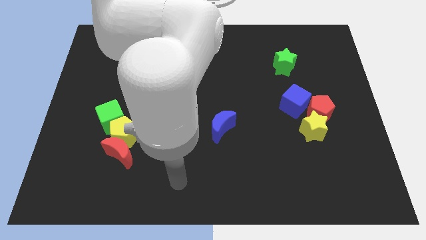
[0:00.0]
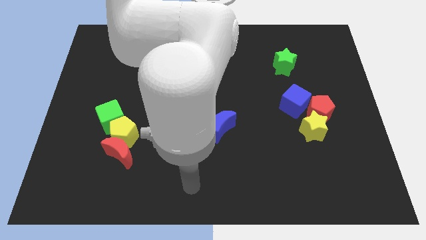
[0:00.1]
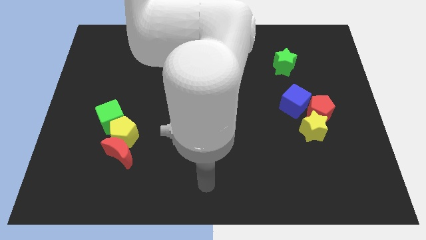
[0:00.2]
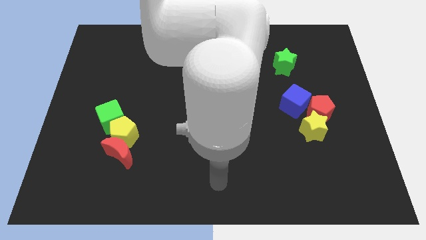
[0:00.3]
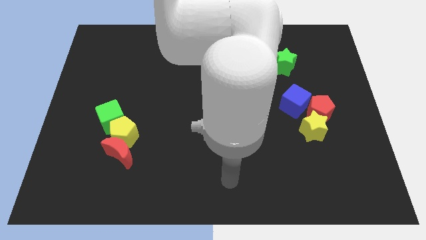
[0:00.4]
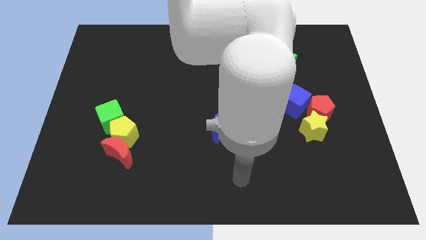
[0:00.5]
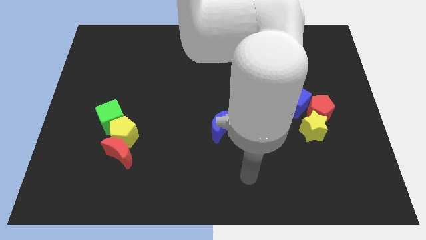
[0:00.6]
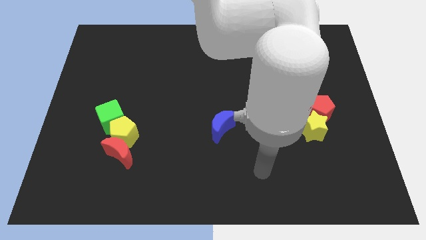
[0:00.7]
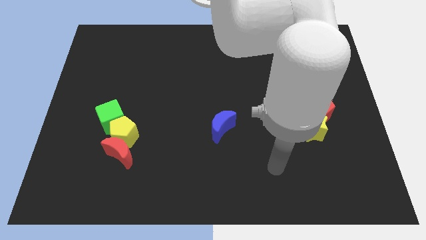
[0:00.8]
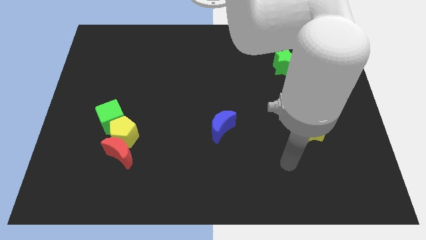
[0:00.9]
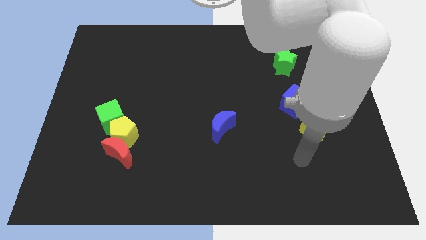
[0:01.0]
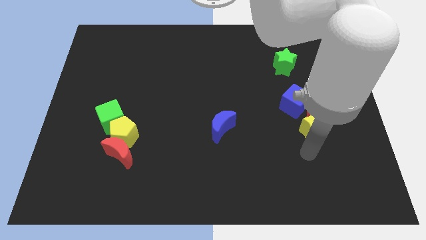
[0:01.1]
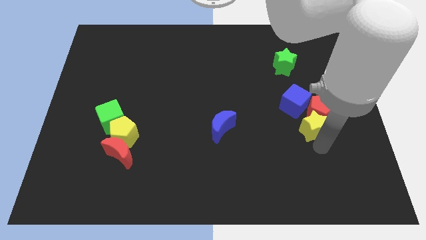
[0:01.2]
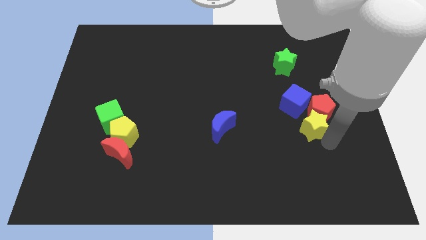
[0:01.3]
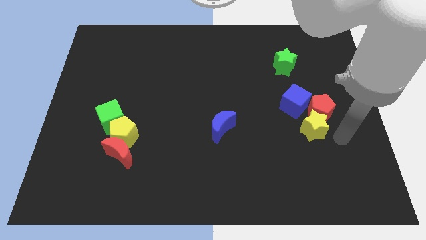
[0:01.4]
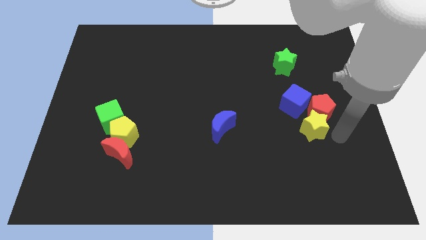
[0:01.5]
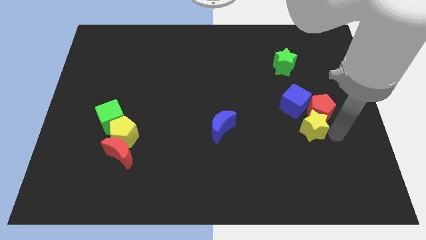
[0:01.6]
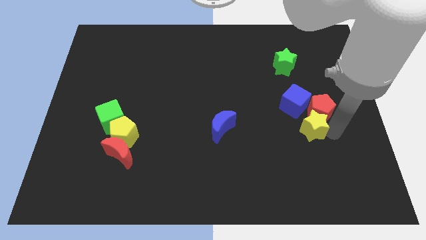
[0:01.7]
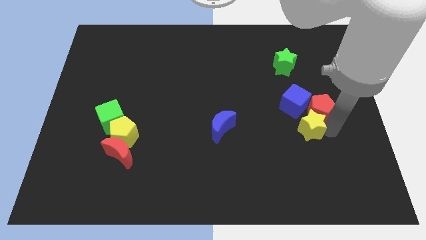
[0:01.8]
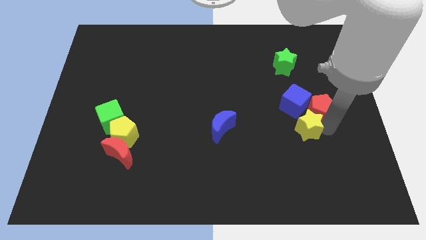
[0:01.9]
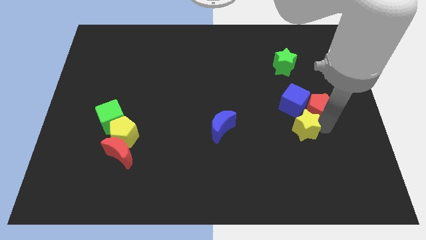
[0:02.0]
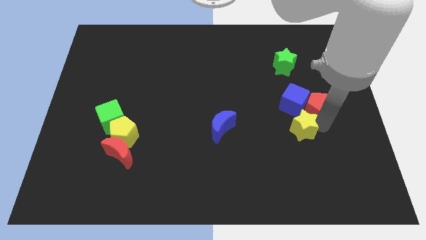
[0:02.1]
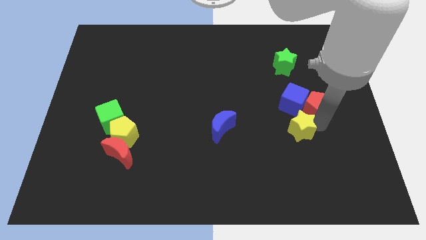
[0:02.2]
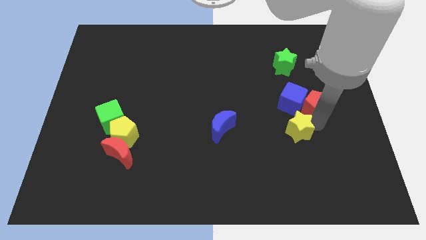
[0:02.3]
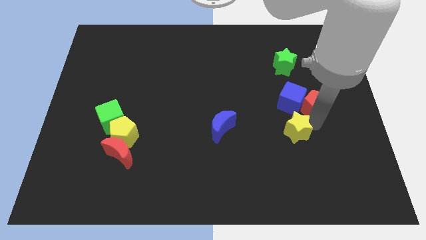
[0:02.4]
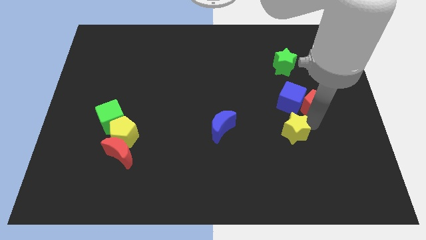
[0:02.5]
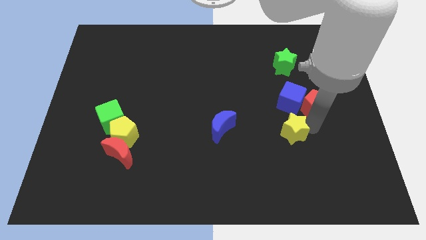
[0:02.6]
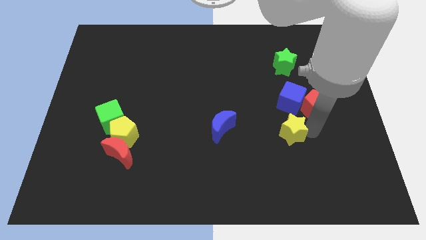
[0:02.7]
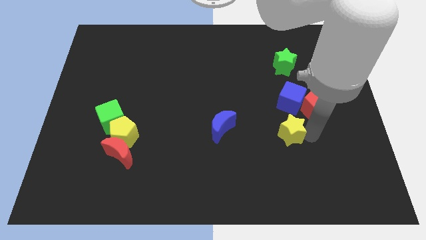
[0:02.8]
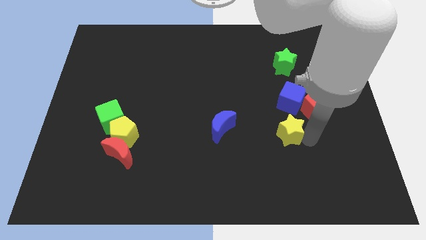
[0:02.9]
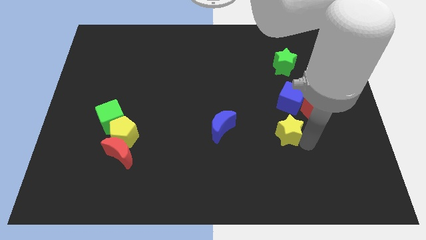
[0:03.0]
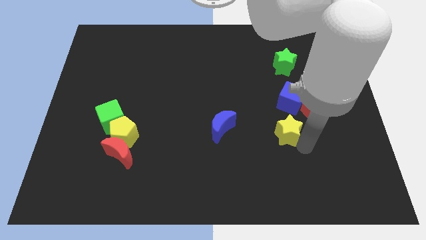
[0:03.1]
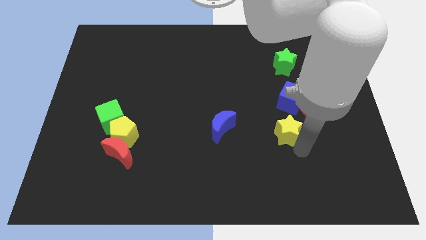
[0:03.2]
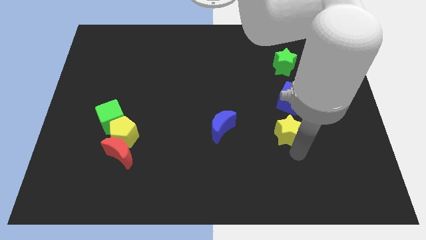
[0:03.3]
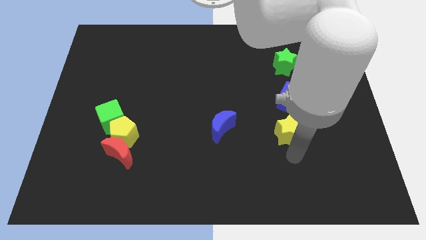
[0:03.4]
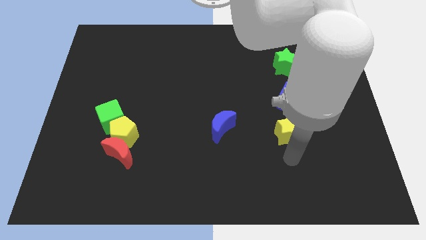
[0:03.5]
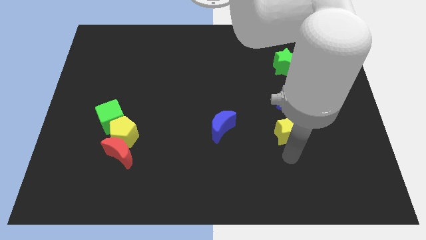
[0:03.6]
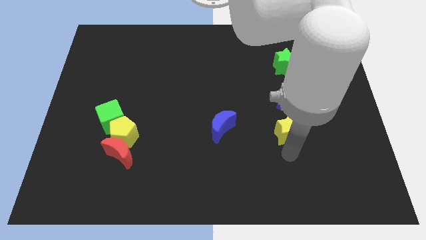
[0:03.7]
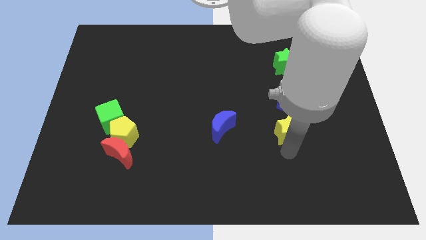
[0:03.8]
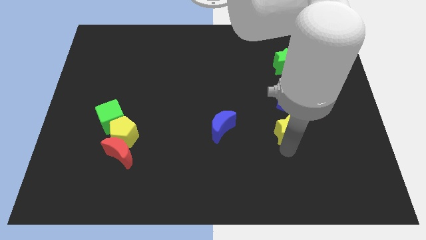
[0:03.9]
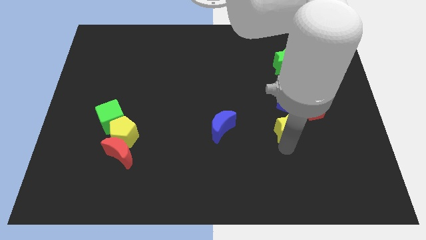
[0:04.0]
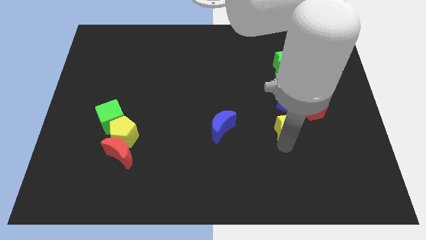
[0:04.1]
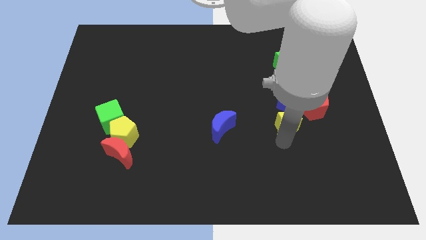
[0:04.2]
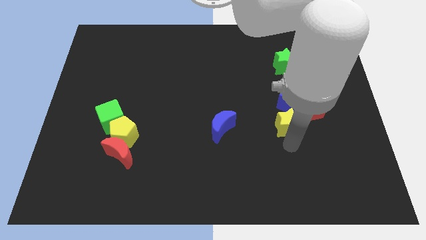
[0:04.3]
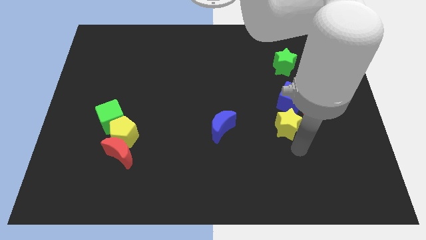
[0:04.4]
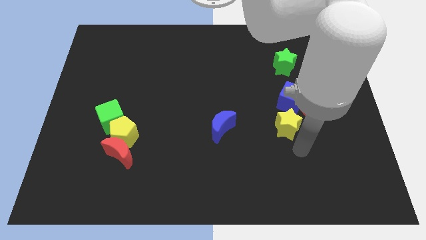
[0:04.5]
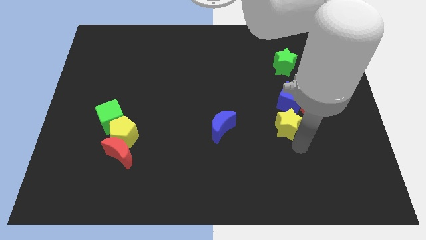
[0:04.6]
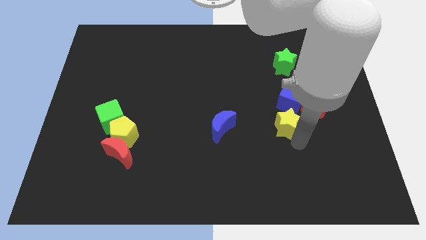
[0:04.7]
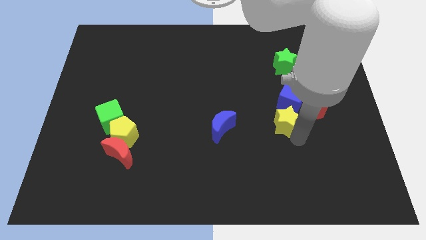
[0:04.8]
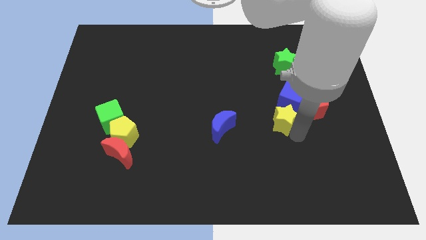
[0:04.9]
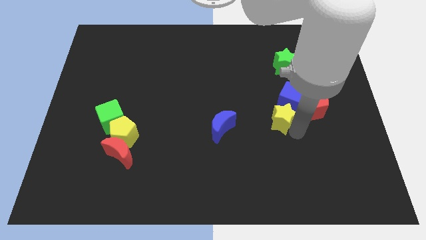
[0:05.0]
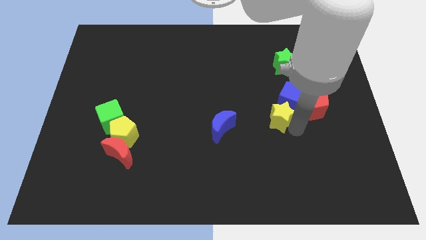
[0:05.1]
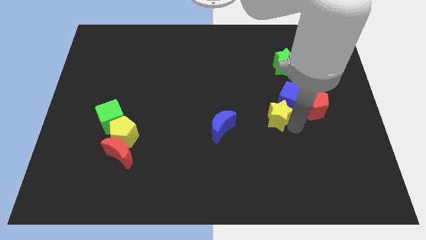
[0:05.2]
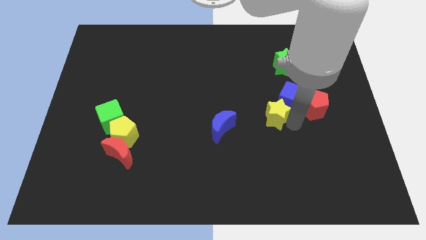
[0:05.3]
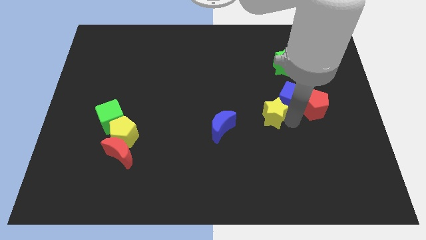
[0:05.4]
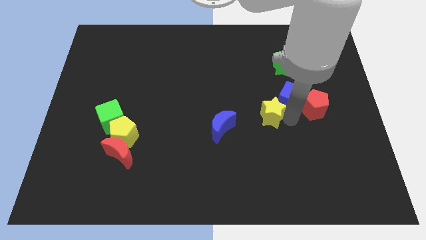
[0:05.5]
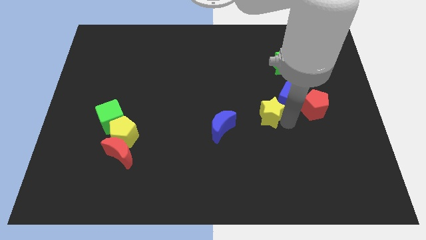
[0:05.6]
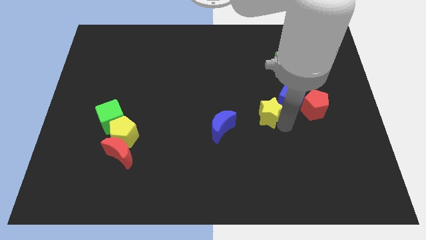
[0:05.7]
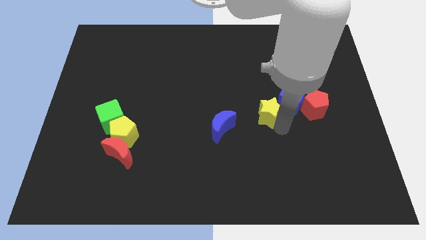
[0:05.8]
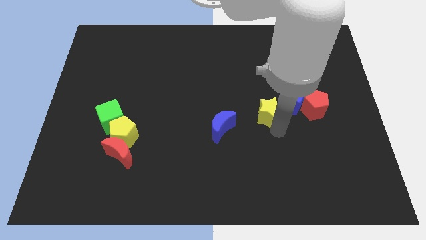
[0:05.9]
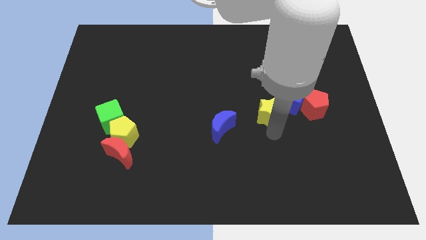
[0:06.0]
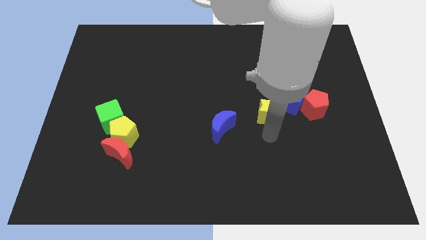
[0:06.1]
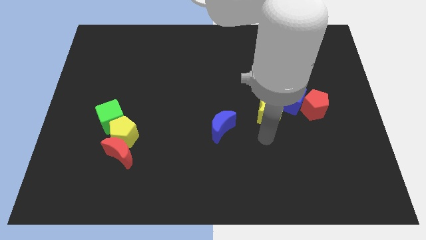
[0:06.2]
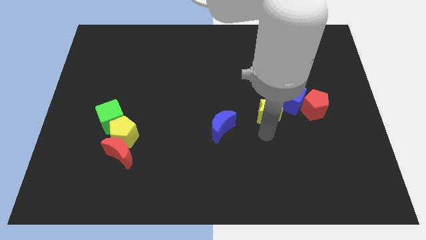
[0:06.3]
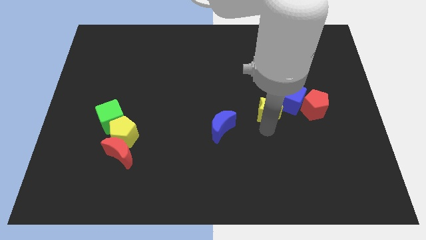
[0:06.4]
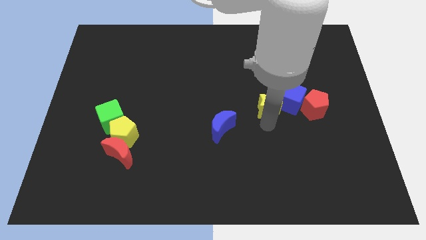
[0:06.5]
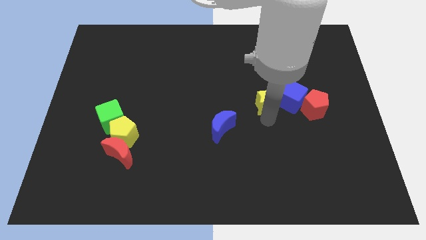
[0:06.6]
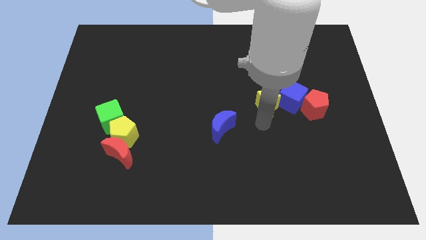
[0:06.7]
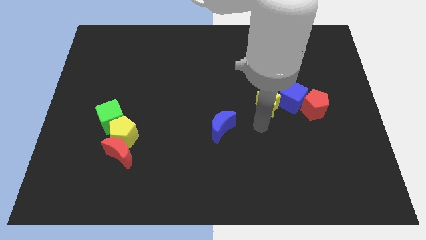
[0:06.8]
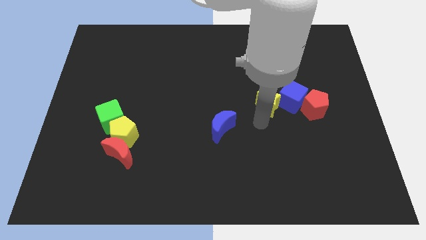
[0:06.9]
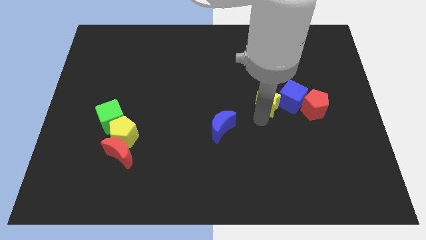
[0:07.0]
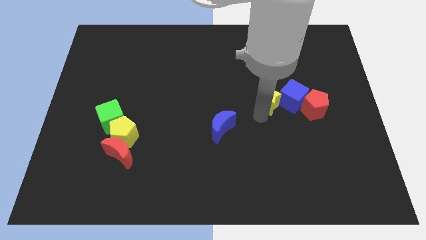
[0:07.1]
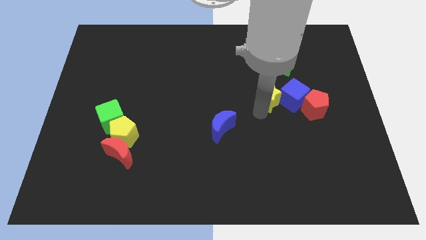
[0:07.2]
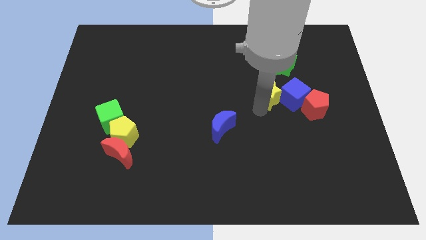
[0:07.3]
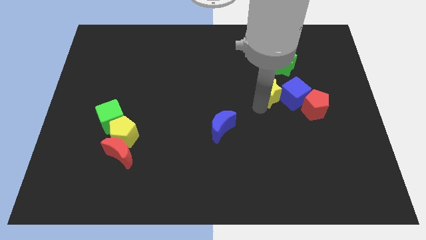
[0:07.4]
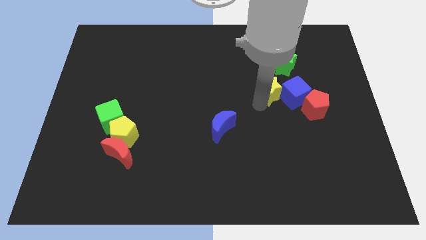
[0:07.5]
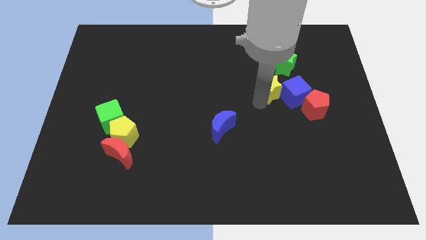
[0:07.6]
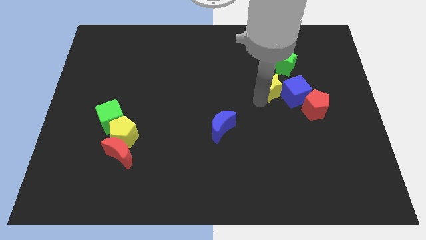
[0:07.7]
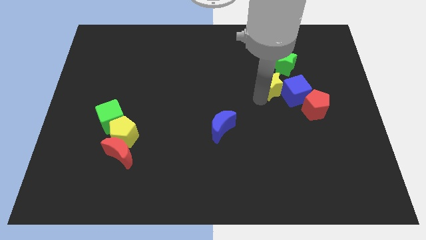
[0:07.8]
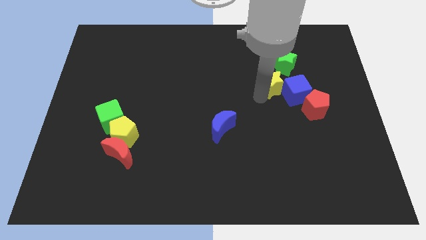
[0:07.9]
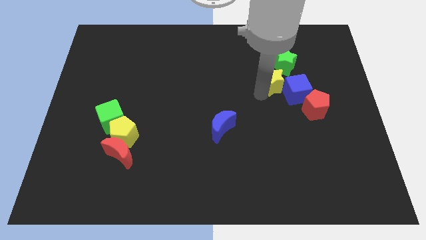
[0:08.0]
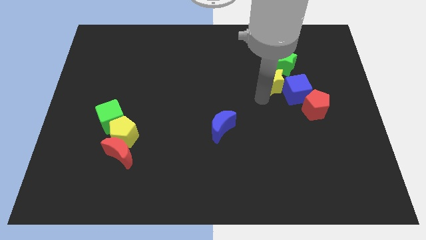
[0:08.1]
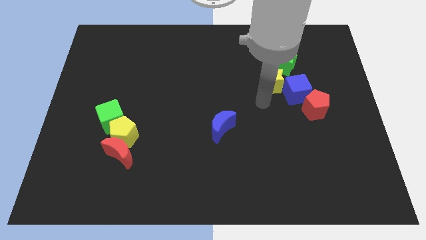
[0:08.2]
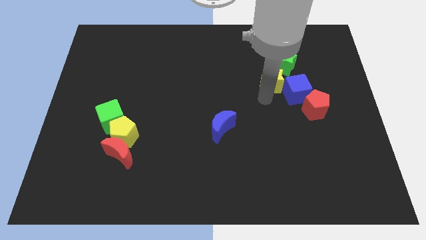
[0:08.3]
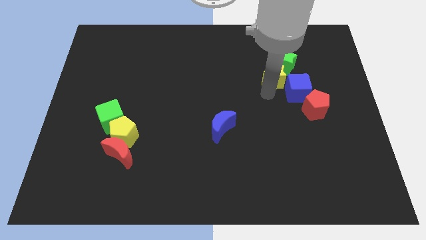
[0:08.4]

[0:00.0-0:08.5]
put the yellow star next to the green star
